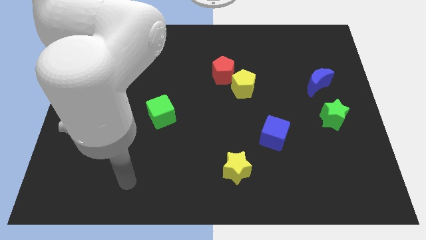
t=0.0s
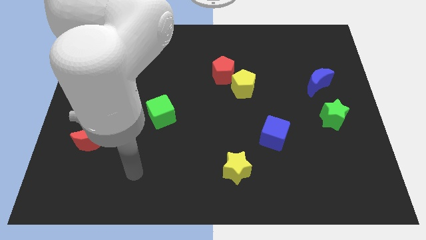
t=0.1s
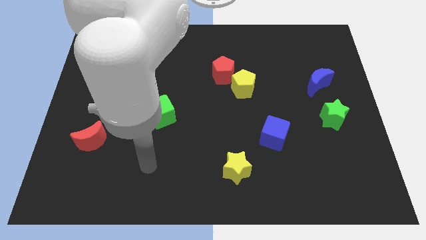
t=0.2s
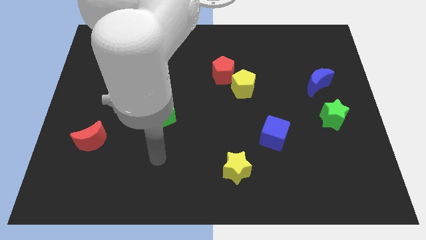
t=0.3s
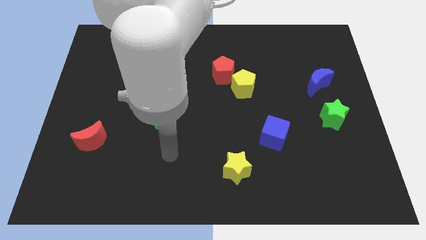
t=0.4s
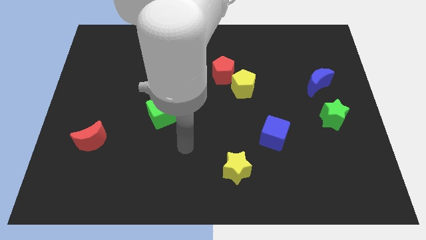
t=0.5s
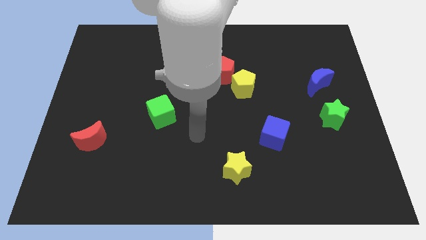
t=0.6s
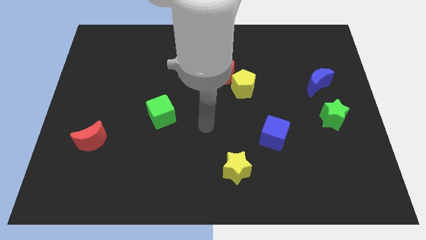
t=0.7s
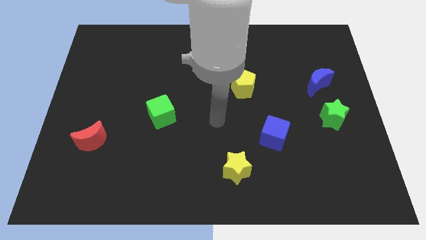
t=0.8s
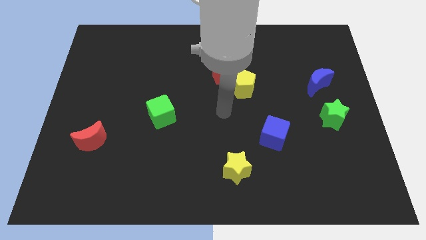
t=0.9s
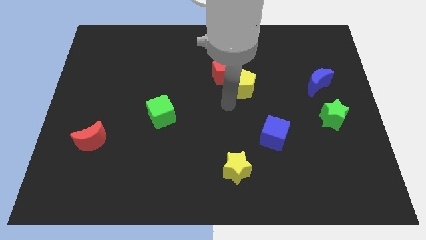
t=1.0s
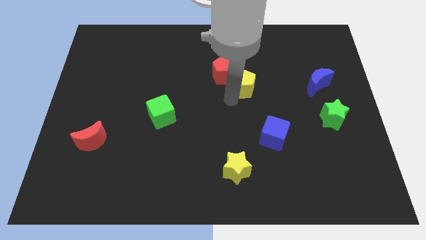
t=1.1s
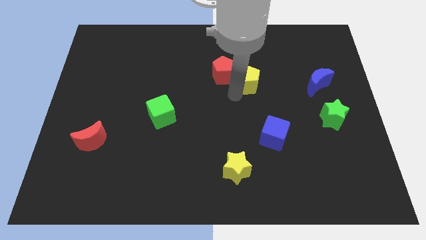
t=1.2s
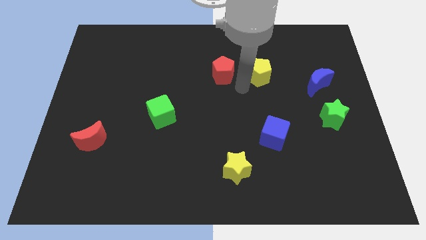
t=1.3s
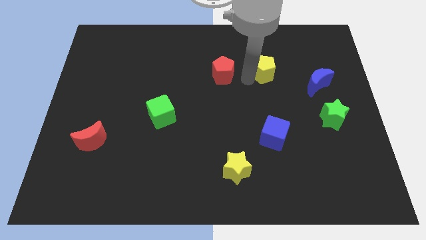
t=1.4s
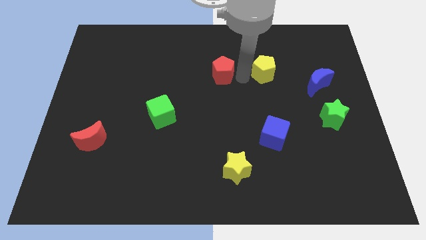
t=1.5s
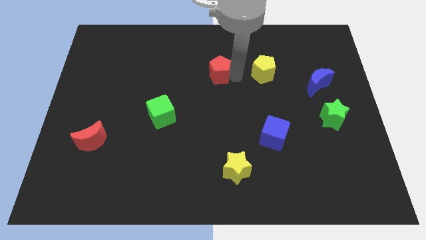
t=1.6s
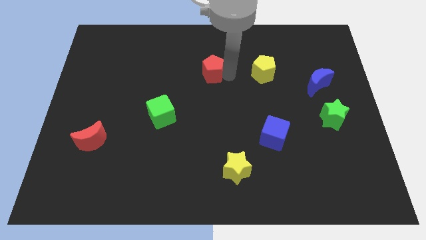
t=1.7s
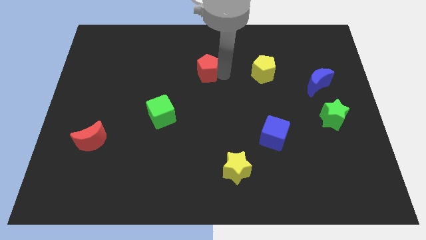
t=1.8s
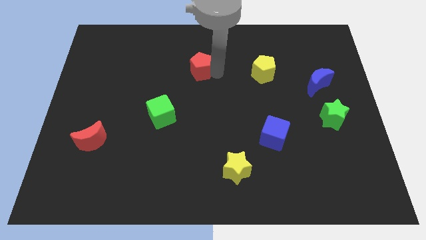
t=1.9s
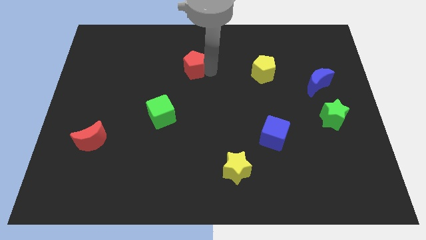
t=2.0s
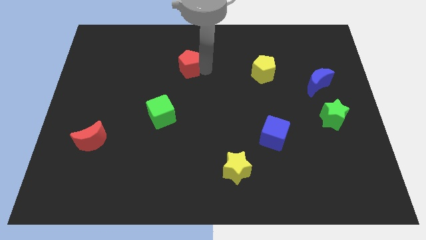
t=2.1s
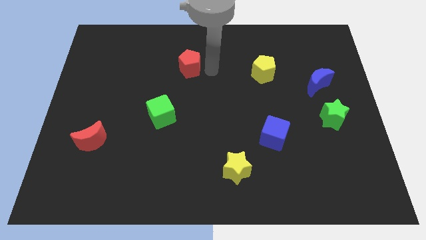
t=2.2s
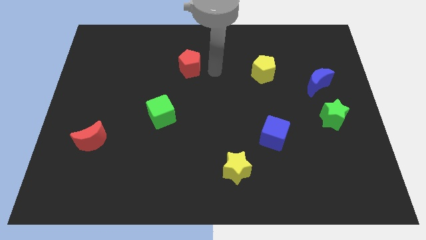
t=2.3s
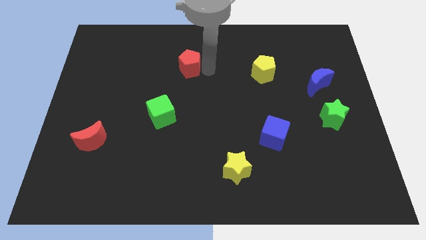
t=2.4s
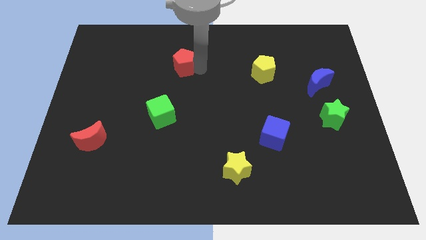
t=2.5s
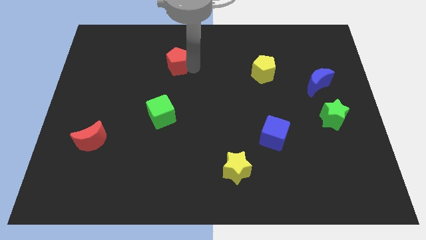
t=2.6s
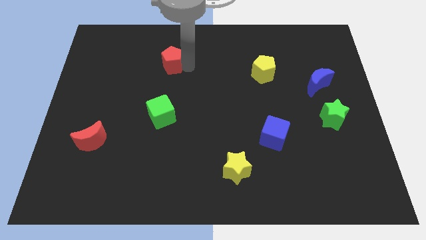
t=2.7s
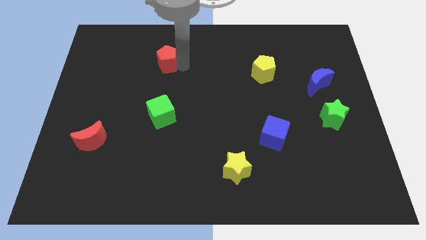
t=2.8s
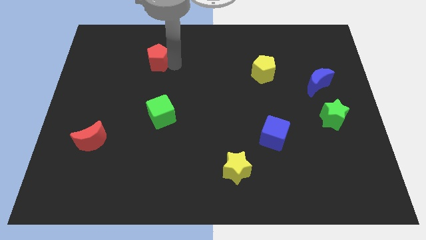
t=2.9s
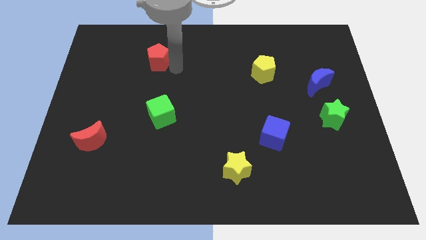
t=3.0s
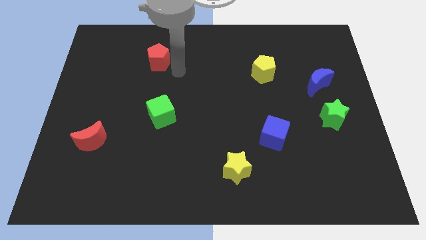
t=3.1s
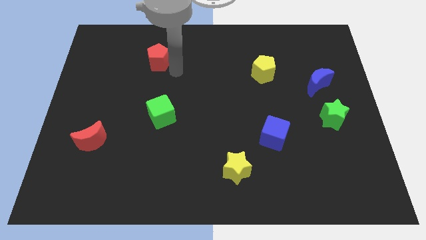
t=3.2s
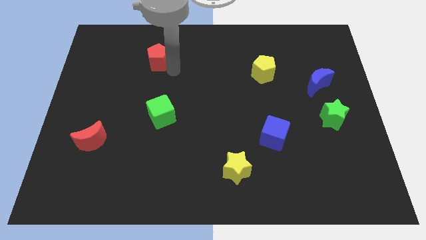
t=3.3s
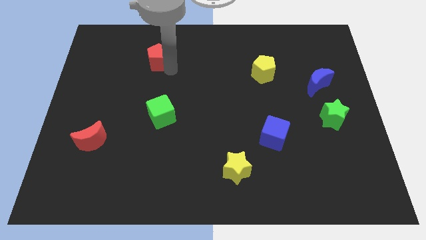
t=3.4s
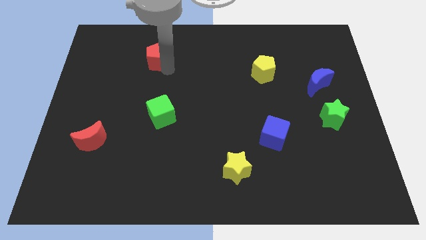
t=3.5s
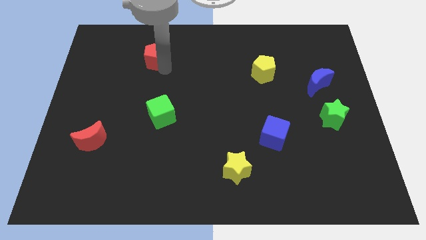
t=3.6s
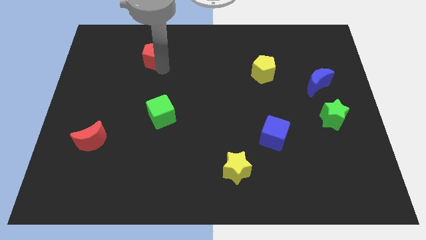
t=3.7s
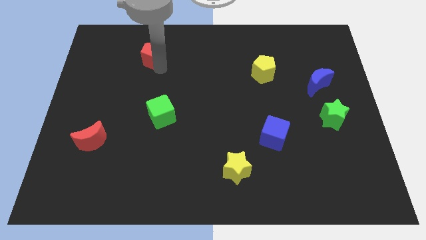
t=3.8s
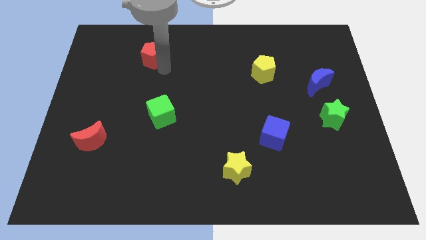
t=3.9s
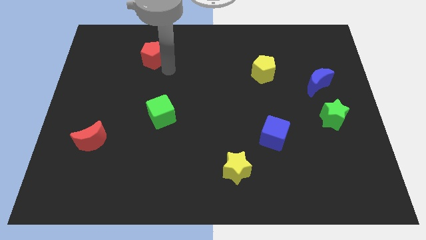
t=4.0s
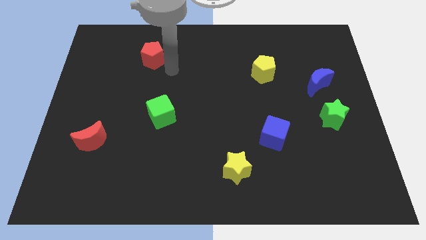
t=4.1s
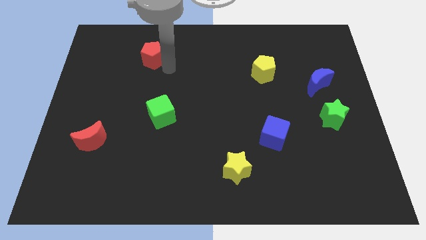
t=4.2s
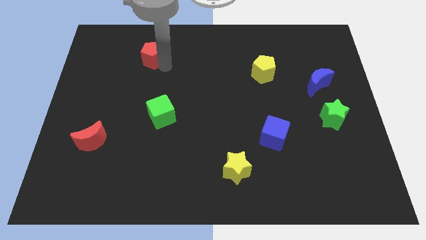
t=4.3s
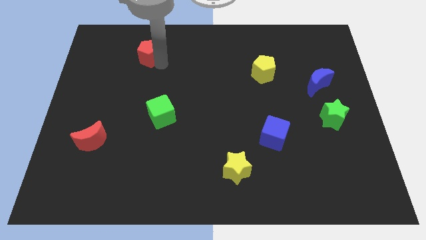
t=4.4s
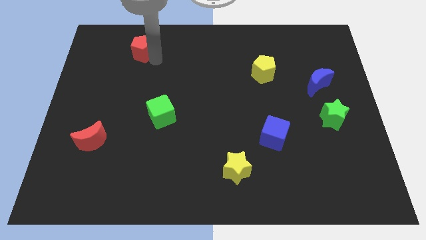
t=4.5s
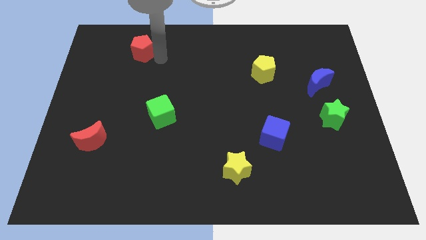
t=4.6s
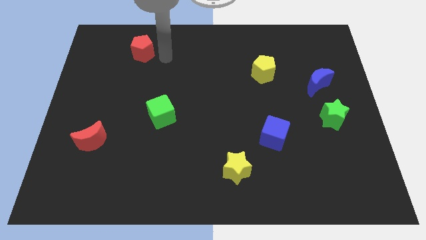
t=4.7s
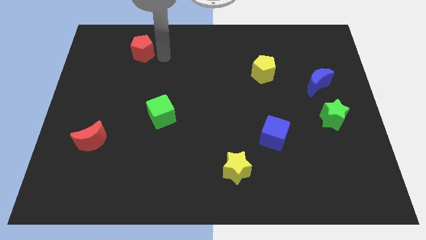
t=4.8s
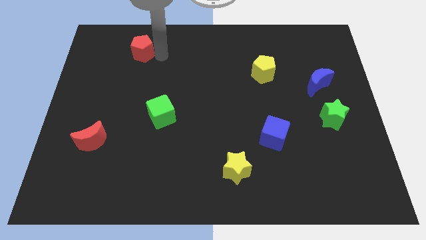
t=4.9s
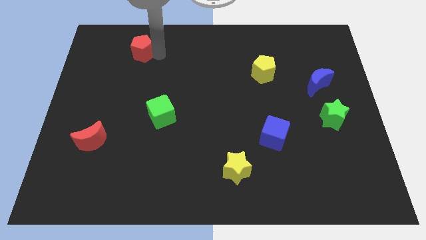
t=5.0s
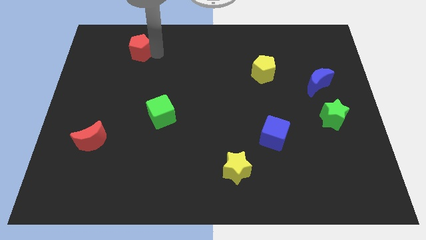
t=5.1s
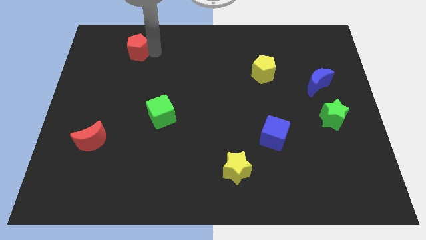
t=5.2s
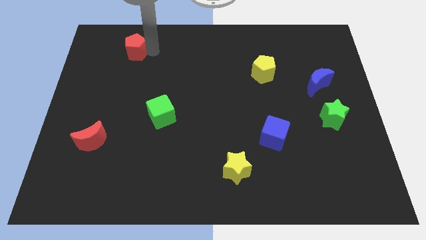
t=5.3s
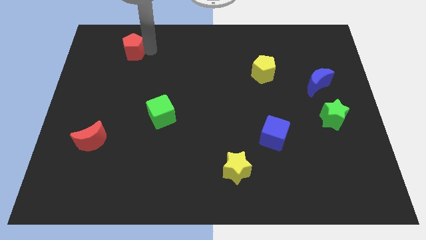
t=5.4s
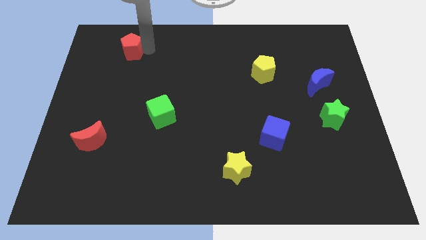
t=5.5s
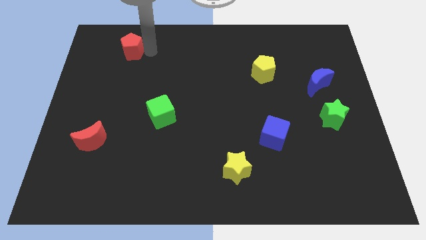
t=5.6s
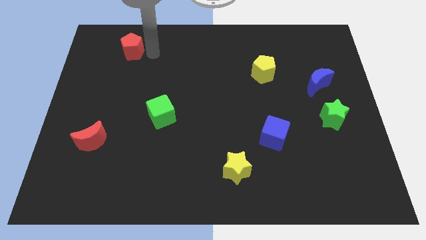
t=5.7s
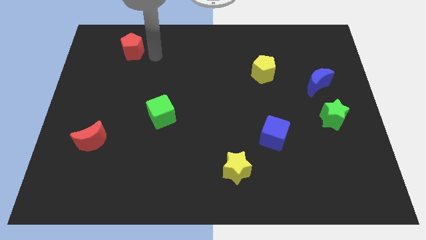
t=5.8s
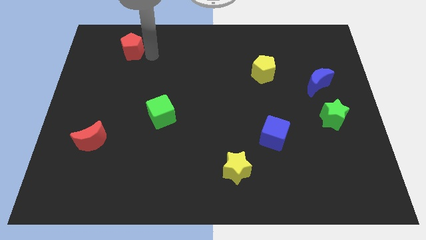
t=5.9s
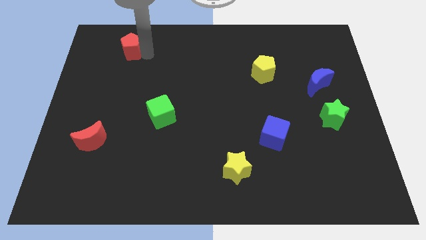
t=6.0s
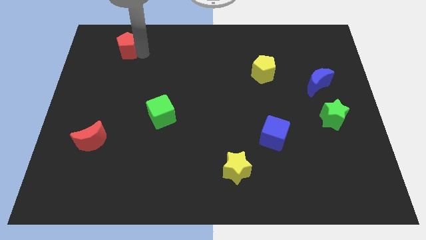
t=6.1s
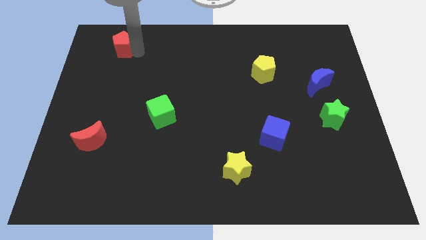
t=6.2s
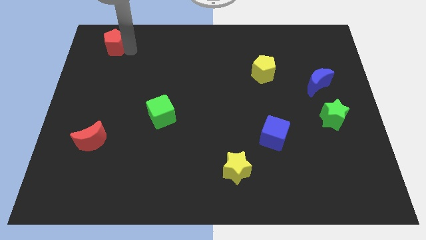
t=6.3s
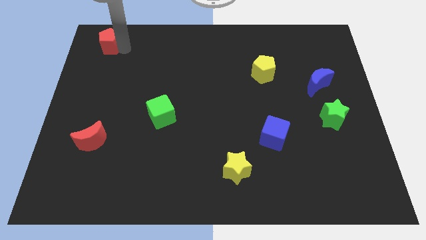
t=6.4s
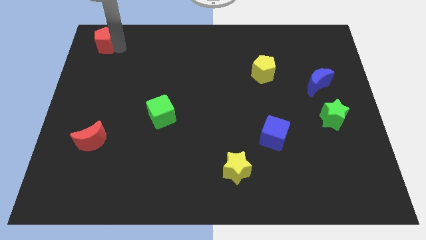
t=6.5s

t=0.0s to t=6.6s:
slide the red pentagon to the top left corner
